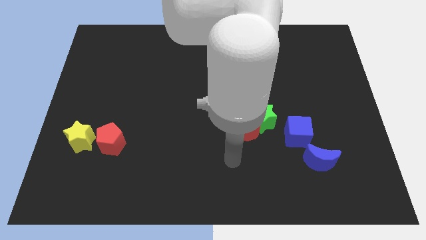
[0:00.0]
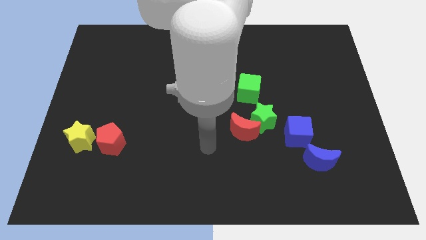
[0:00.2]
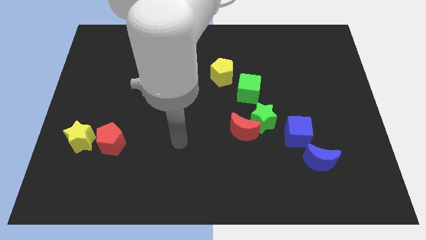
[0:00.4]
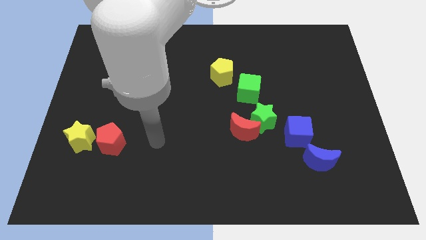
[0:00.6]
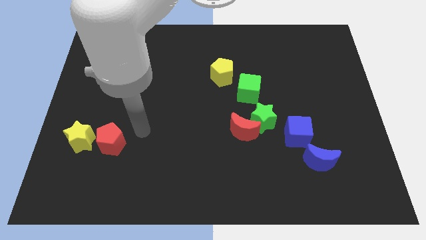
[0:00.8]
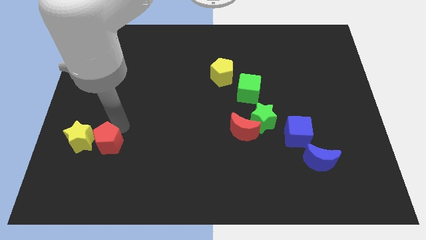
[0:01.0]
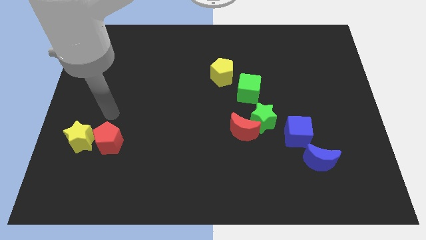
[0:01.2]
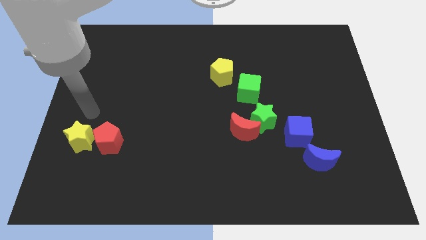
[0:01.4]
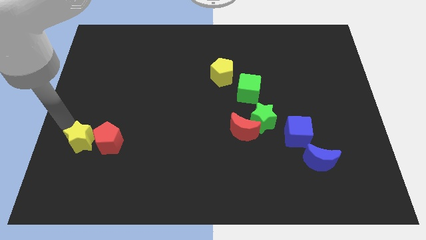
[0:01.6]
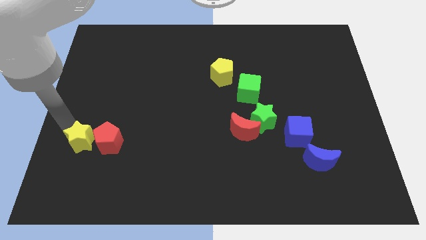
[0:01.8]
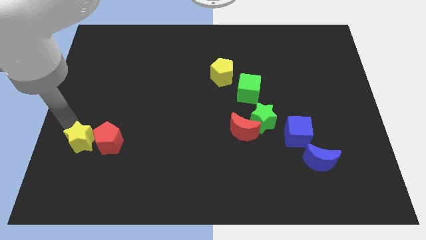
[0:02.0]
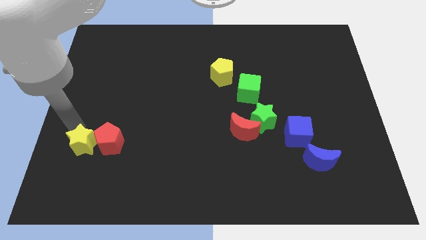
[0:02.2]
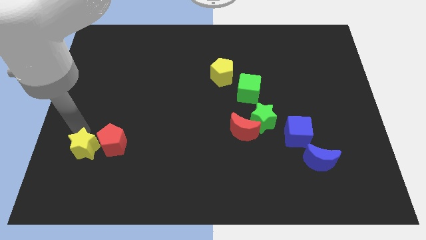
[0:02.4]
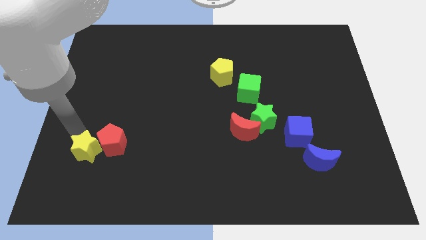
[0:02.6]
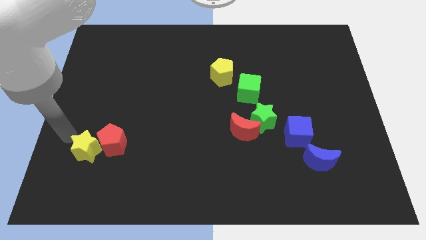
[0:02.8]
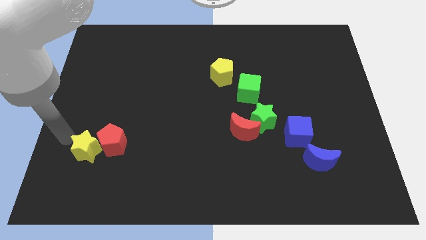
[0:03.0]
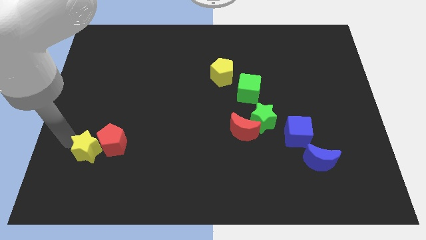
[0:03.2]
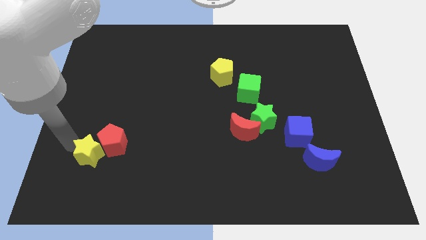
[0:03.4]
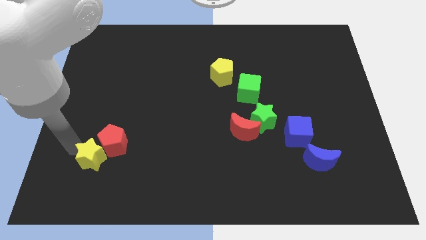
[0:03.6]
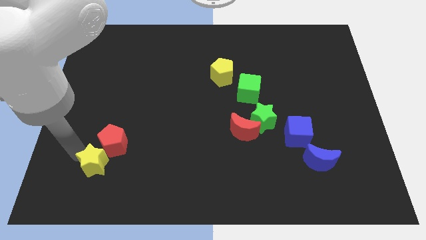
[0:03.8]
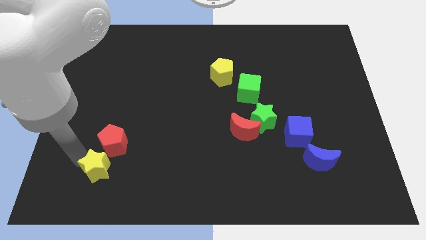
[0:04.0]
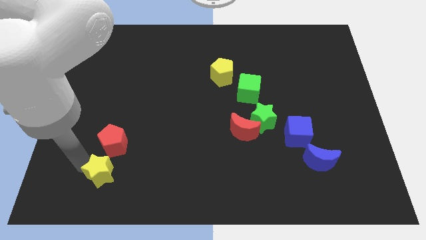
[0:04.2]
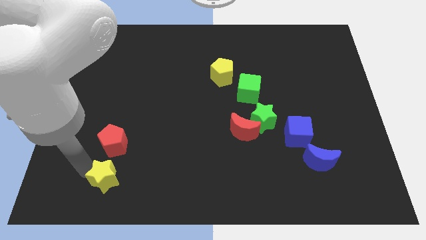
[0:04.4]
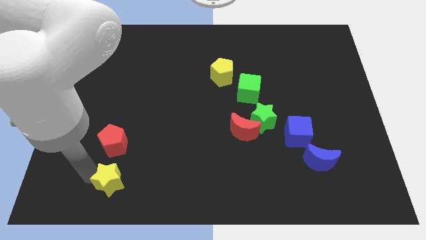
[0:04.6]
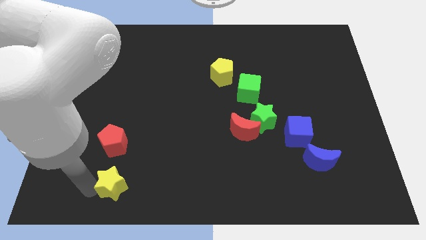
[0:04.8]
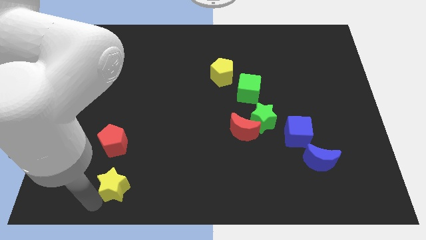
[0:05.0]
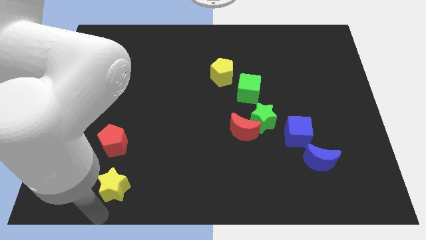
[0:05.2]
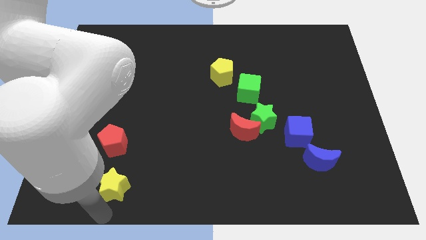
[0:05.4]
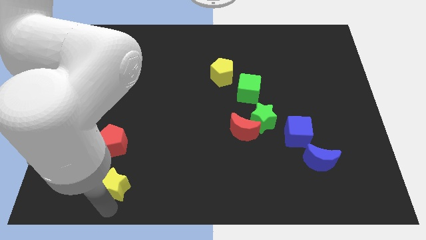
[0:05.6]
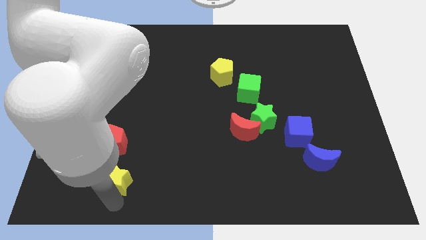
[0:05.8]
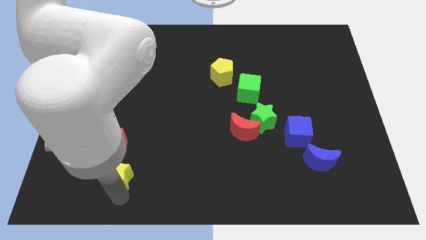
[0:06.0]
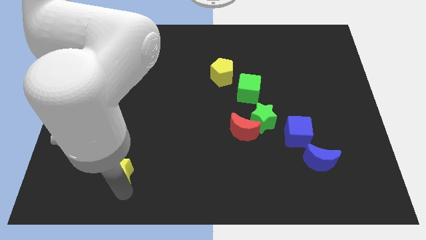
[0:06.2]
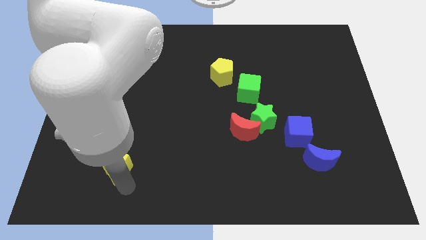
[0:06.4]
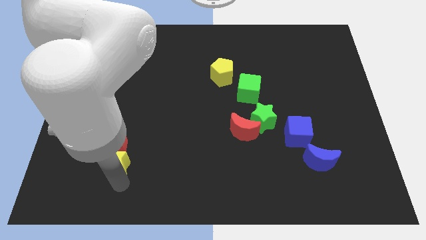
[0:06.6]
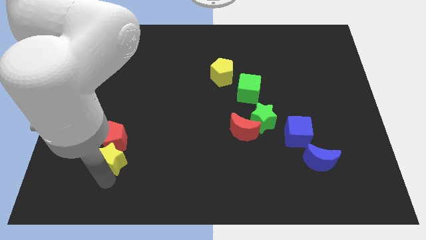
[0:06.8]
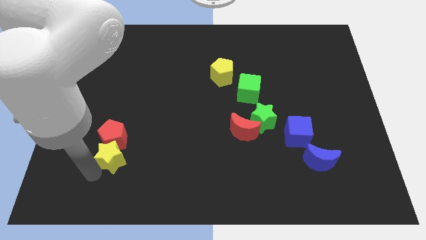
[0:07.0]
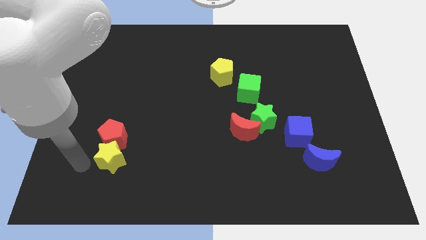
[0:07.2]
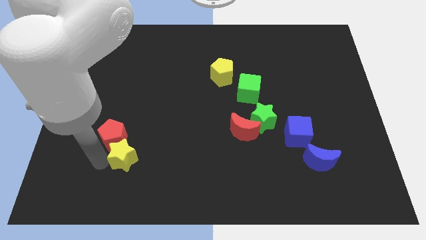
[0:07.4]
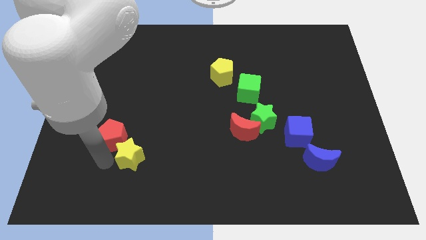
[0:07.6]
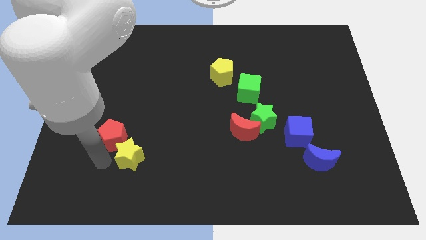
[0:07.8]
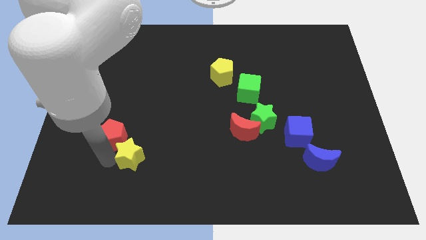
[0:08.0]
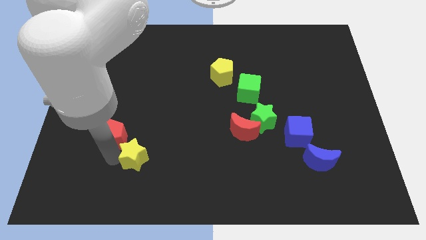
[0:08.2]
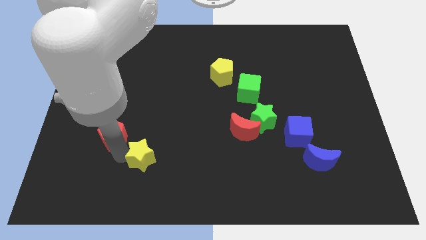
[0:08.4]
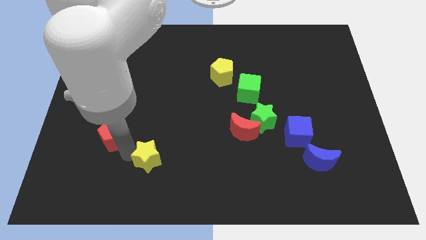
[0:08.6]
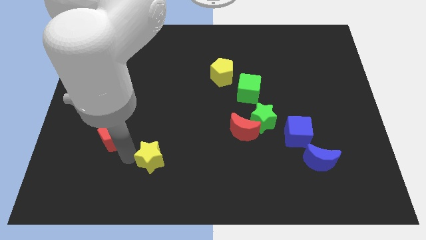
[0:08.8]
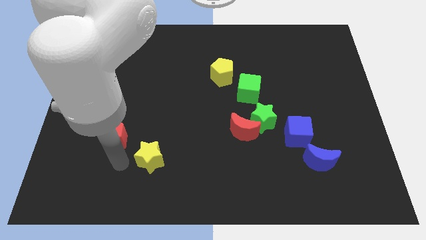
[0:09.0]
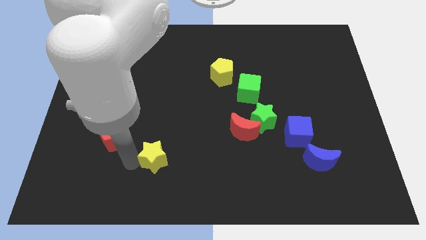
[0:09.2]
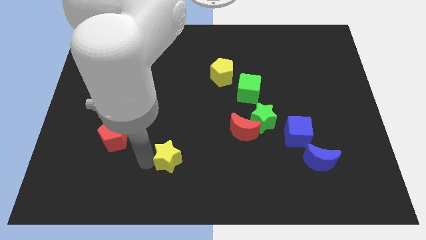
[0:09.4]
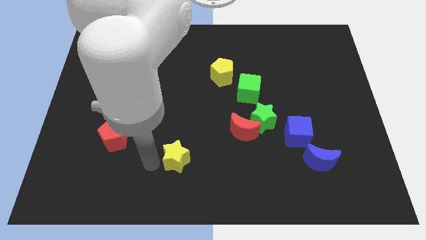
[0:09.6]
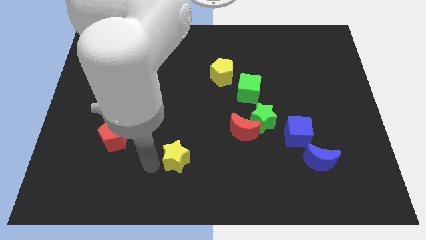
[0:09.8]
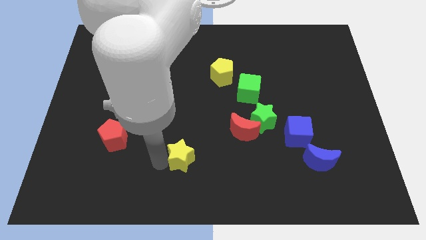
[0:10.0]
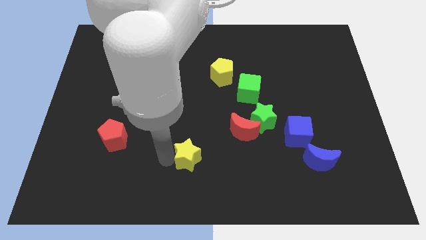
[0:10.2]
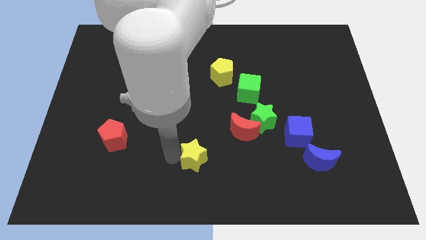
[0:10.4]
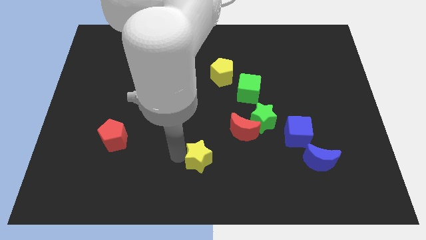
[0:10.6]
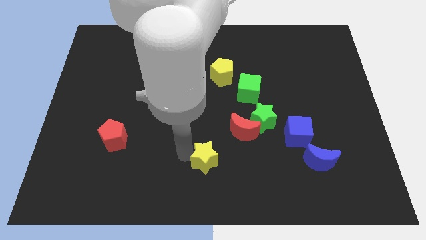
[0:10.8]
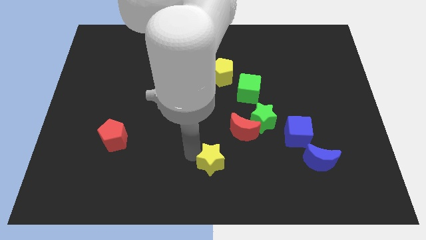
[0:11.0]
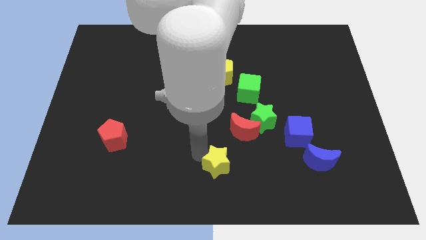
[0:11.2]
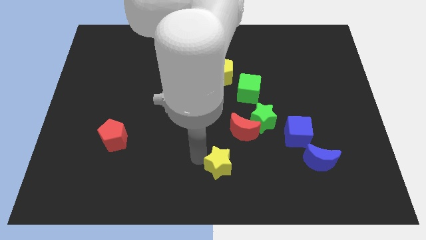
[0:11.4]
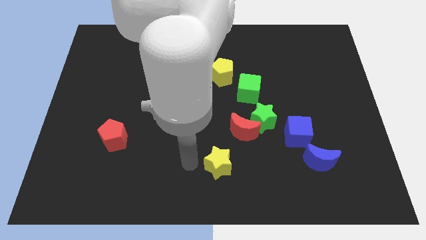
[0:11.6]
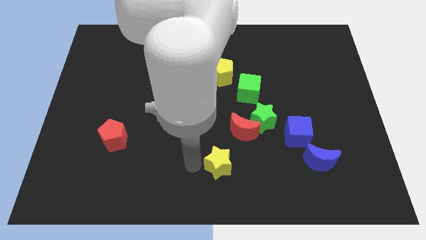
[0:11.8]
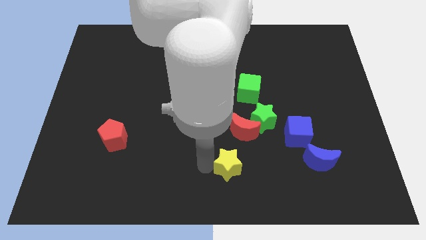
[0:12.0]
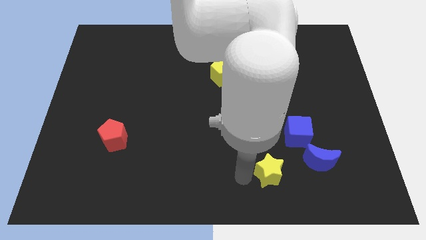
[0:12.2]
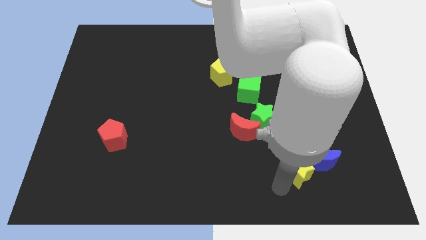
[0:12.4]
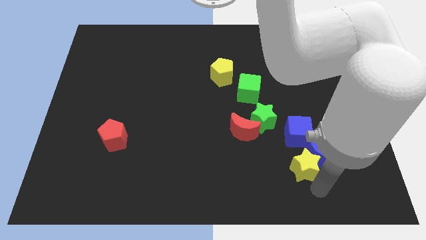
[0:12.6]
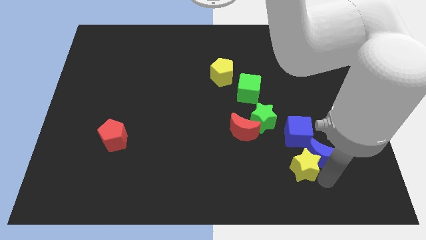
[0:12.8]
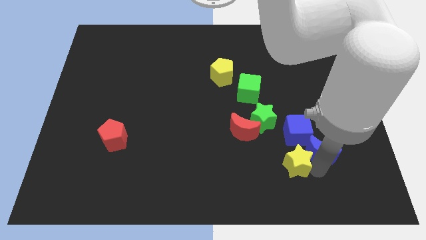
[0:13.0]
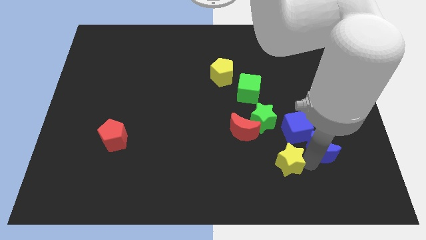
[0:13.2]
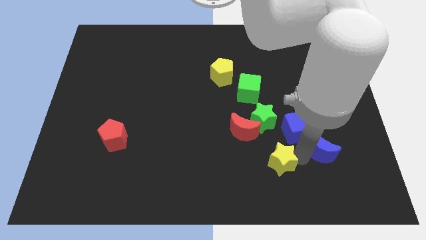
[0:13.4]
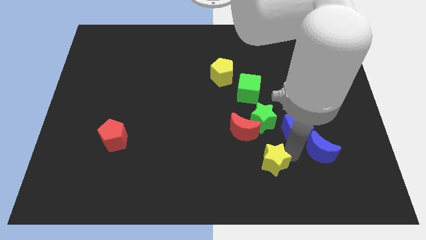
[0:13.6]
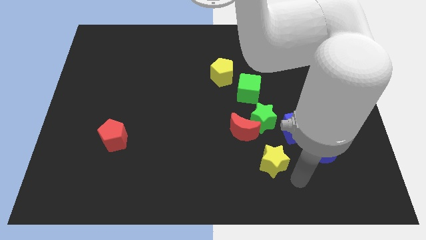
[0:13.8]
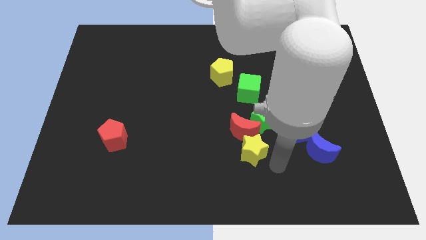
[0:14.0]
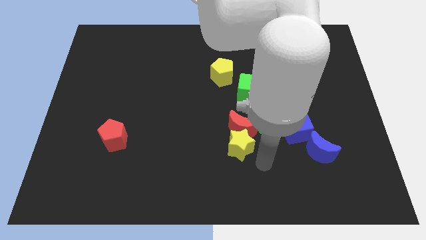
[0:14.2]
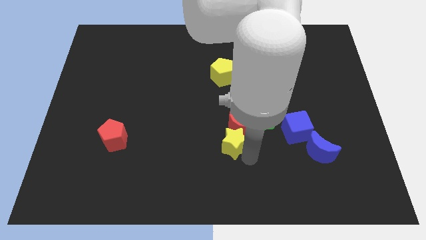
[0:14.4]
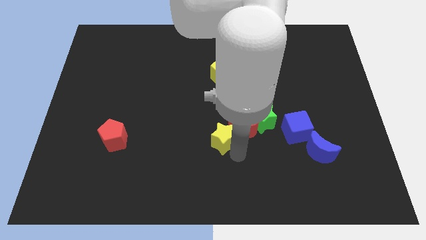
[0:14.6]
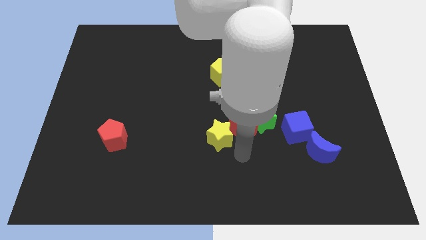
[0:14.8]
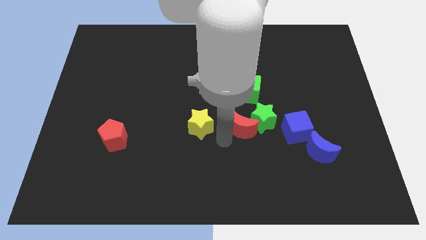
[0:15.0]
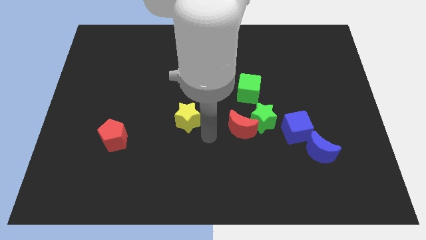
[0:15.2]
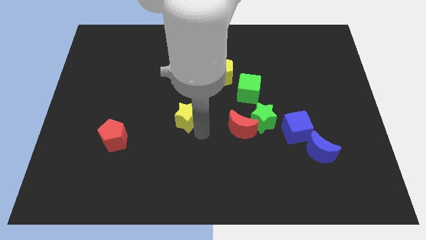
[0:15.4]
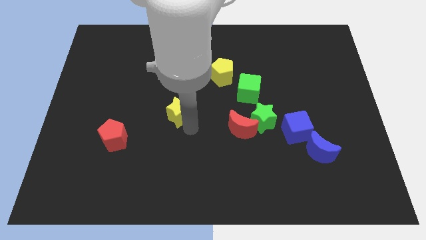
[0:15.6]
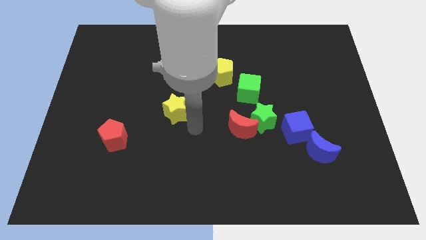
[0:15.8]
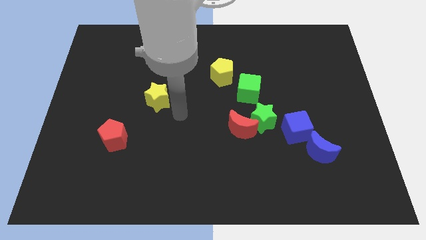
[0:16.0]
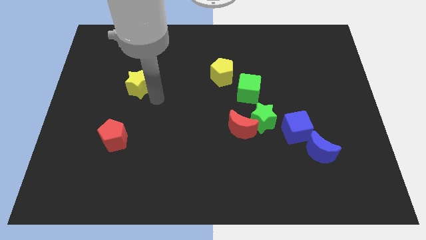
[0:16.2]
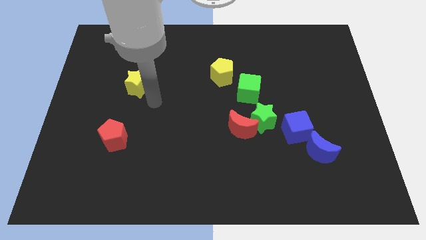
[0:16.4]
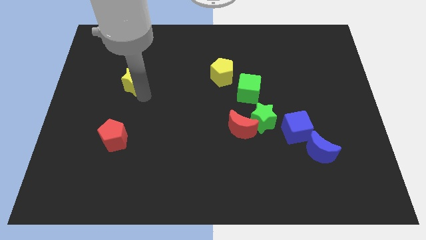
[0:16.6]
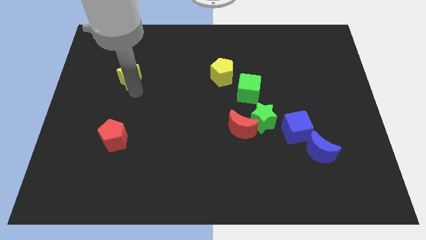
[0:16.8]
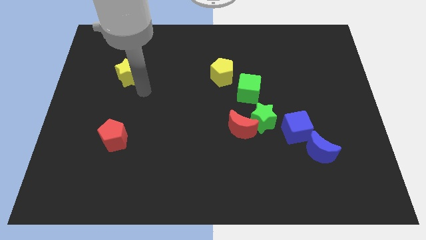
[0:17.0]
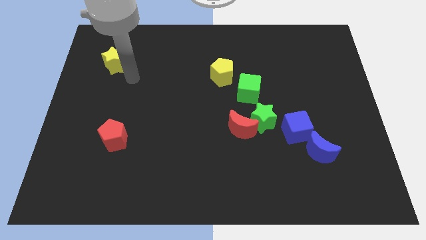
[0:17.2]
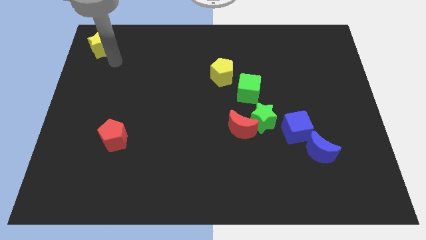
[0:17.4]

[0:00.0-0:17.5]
push the yellow star to the top left corner
